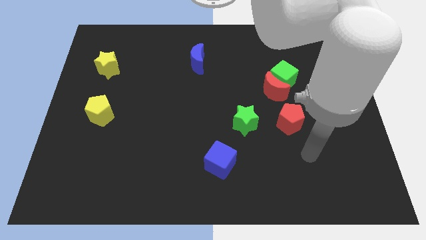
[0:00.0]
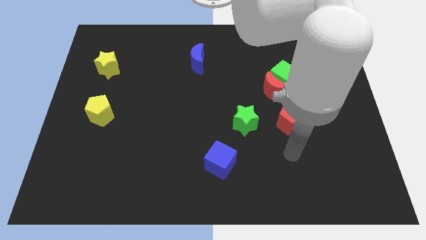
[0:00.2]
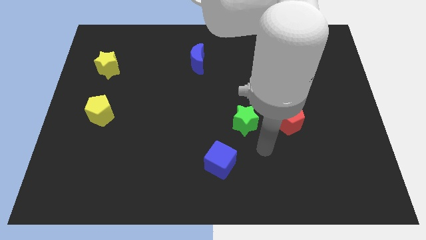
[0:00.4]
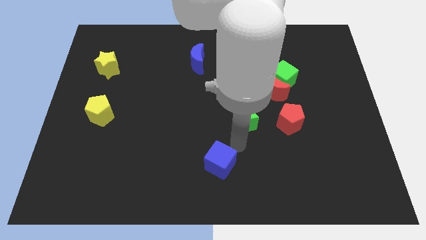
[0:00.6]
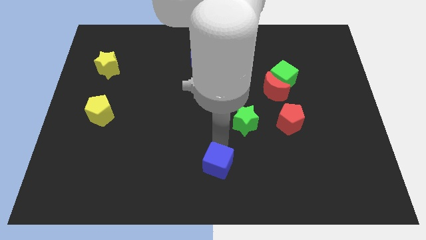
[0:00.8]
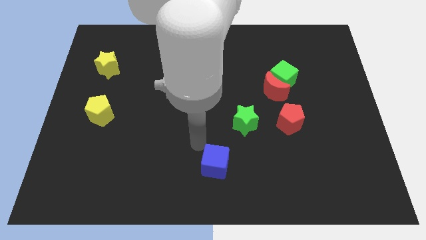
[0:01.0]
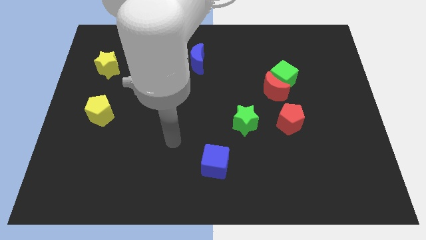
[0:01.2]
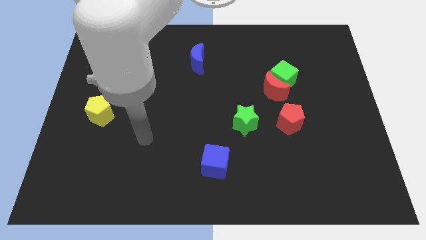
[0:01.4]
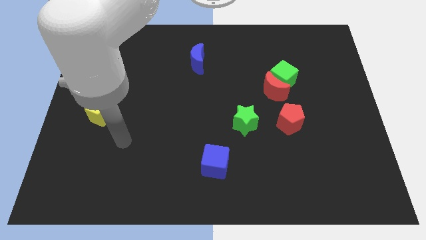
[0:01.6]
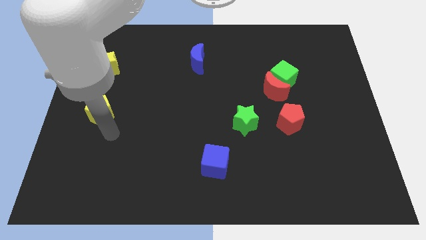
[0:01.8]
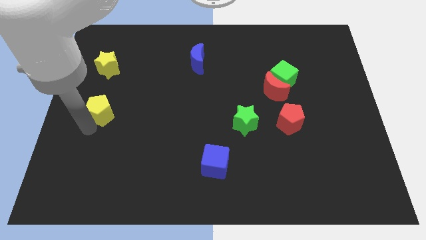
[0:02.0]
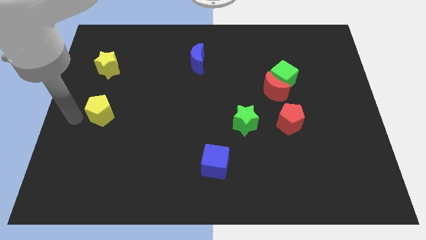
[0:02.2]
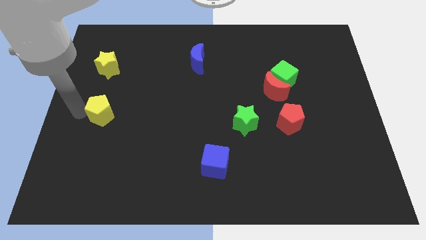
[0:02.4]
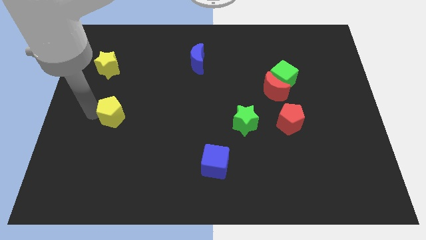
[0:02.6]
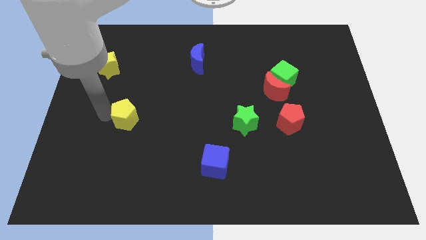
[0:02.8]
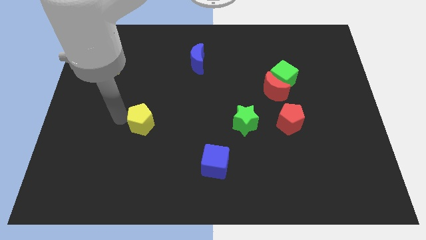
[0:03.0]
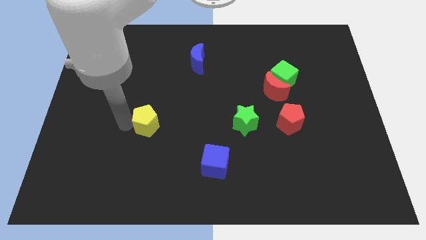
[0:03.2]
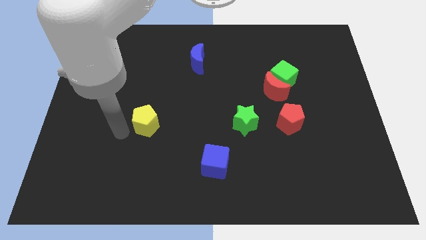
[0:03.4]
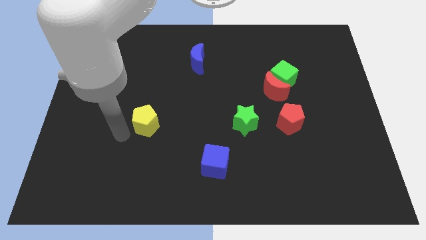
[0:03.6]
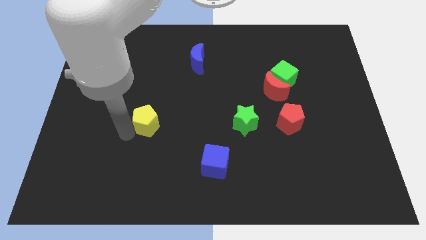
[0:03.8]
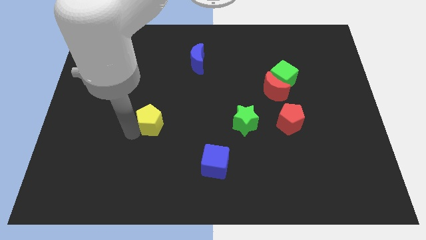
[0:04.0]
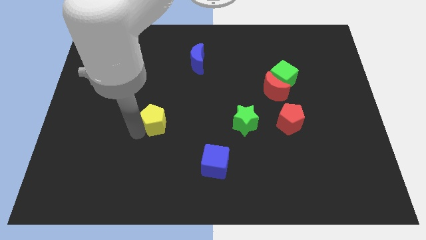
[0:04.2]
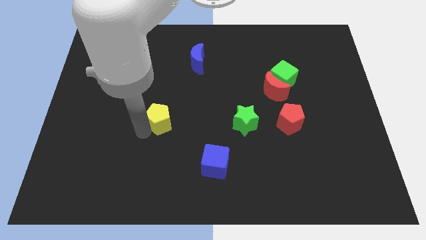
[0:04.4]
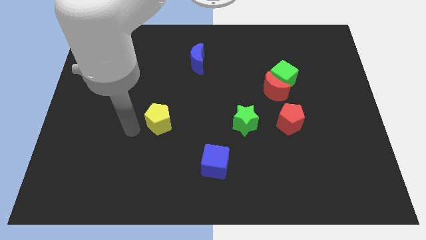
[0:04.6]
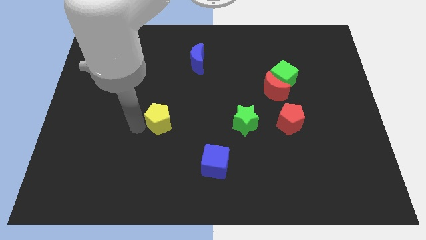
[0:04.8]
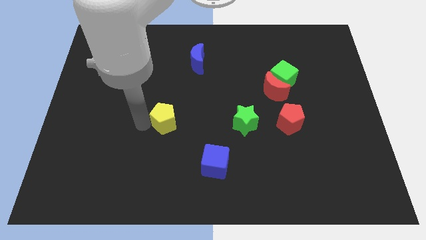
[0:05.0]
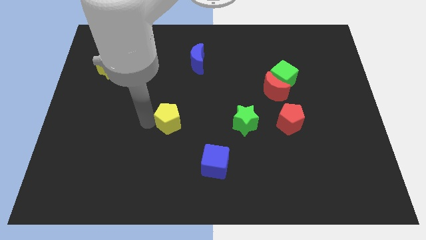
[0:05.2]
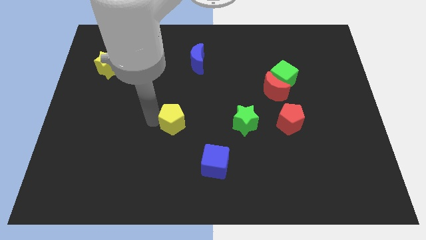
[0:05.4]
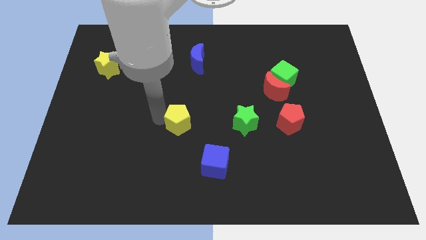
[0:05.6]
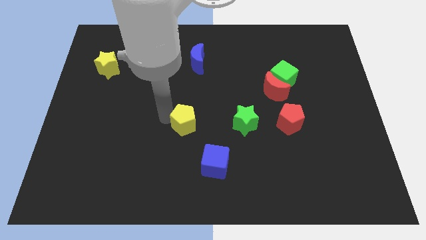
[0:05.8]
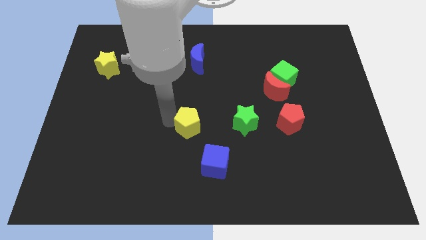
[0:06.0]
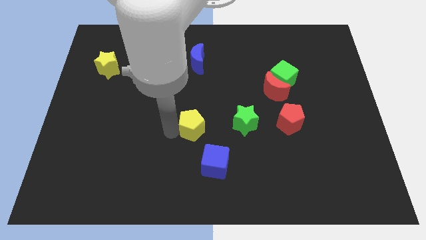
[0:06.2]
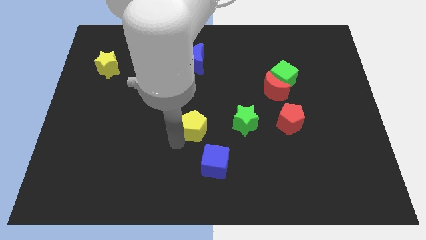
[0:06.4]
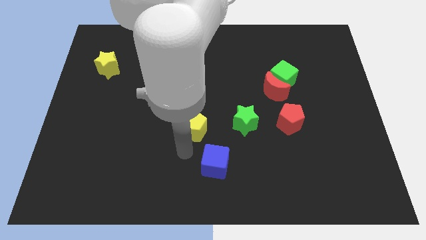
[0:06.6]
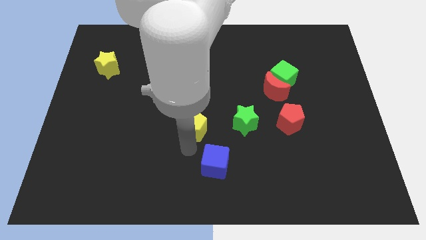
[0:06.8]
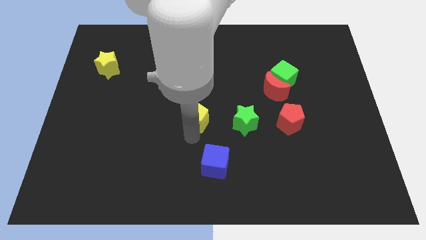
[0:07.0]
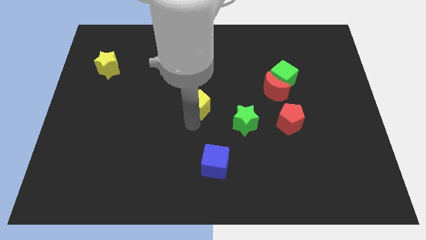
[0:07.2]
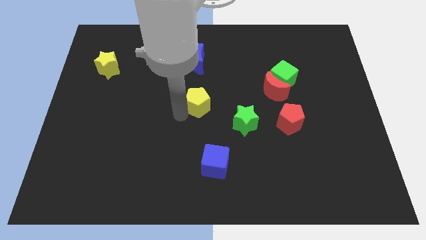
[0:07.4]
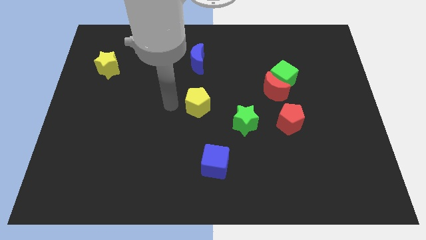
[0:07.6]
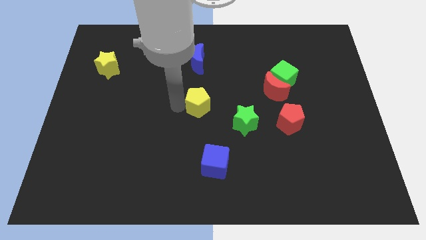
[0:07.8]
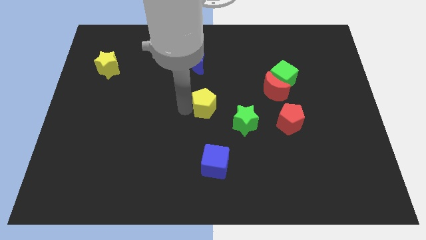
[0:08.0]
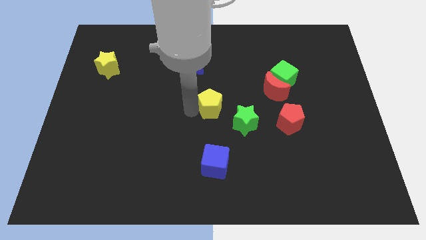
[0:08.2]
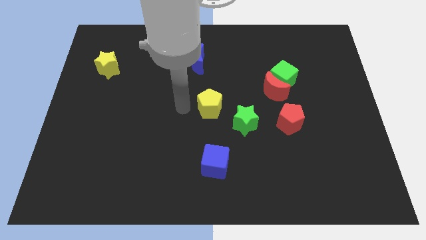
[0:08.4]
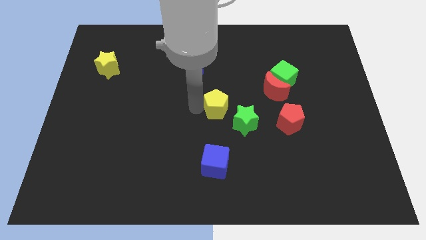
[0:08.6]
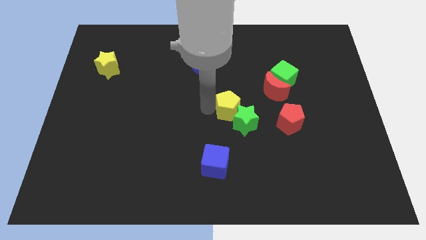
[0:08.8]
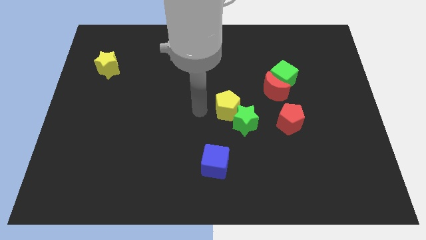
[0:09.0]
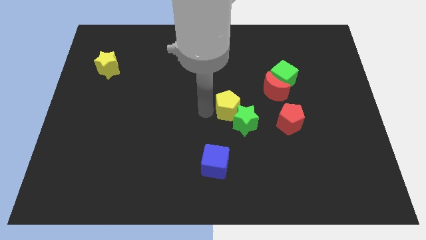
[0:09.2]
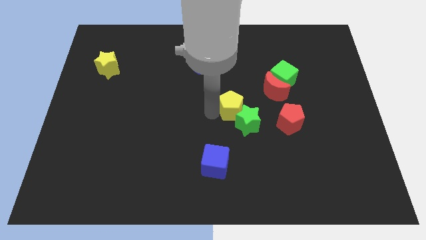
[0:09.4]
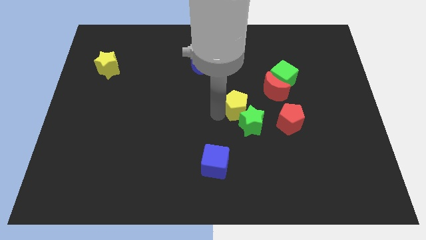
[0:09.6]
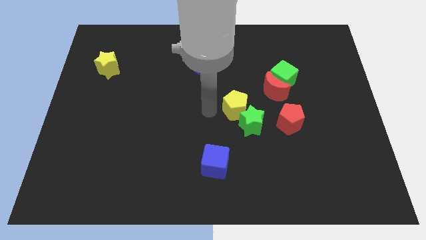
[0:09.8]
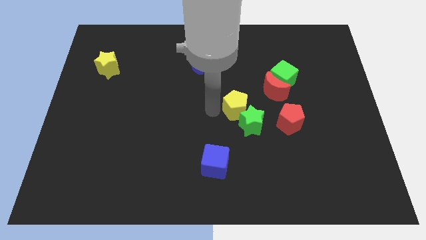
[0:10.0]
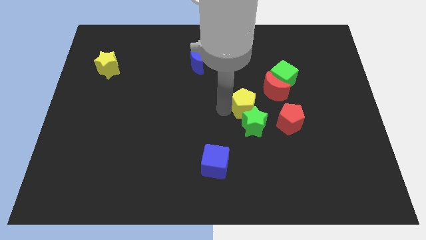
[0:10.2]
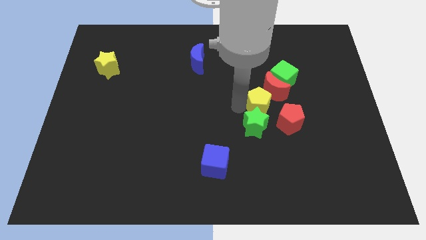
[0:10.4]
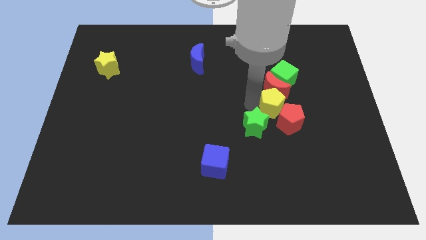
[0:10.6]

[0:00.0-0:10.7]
put the yellow pentagon close to the red pentagon

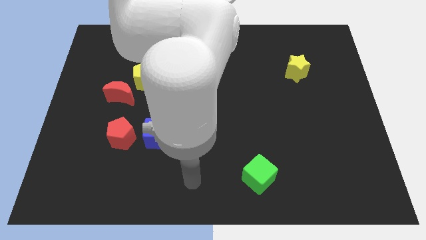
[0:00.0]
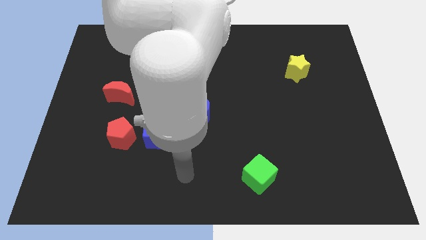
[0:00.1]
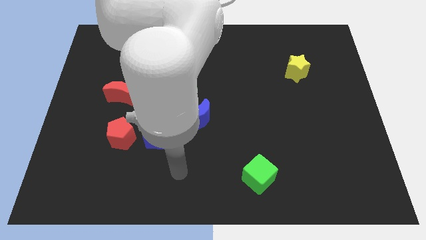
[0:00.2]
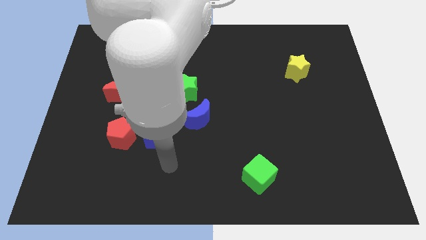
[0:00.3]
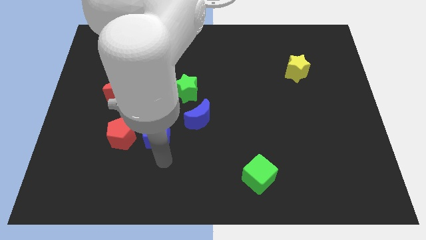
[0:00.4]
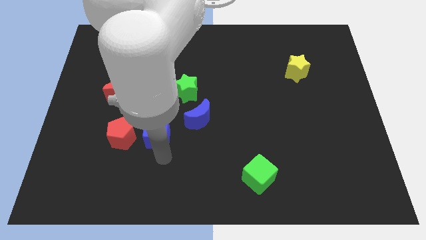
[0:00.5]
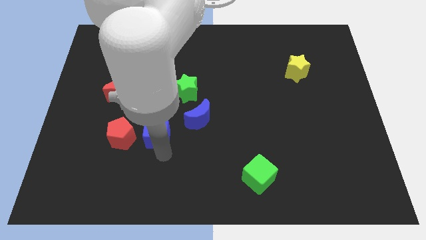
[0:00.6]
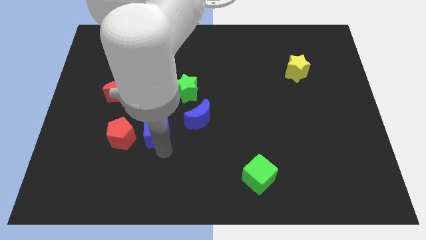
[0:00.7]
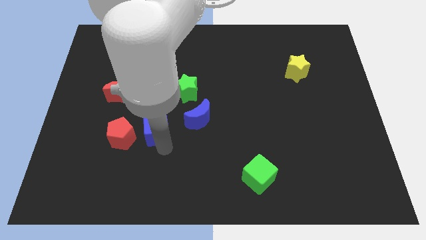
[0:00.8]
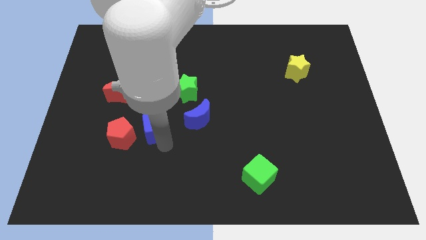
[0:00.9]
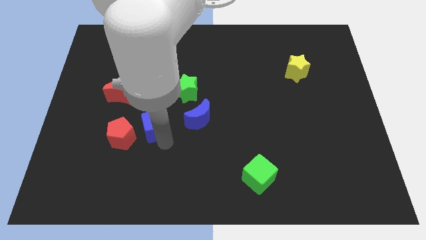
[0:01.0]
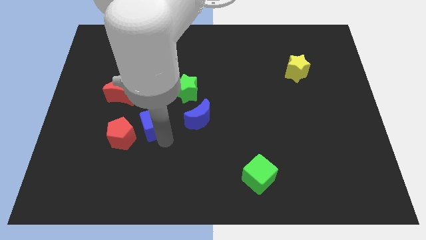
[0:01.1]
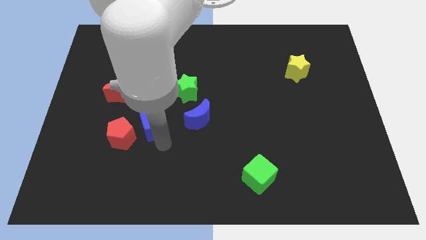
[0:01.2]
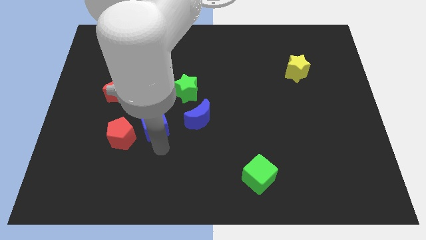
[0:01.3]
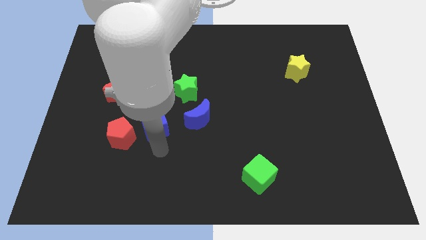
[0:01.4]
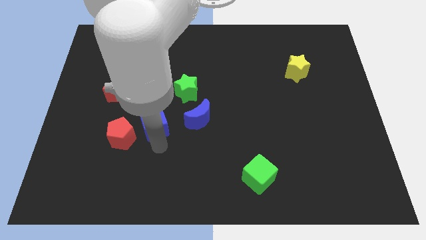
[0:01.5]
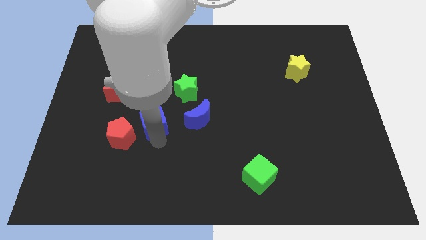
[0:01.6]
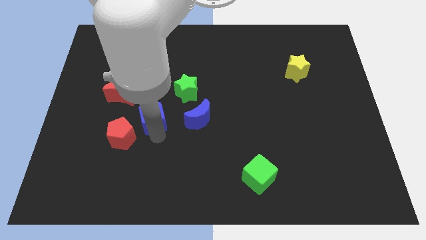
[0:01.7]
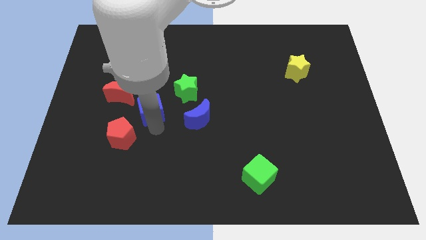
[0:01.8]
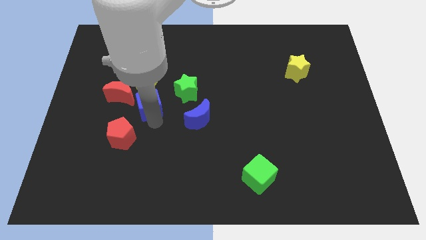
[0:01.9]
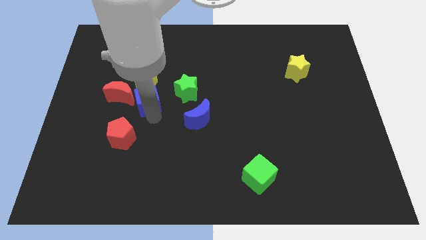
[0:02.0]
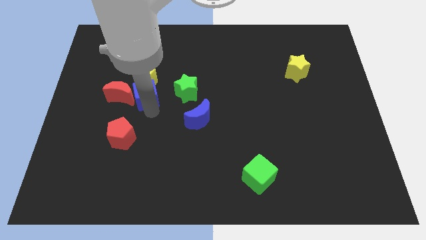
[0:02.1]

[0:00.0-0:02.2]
move the blue cube to the yellow pentagon
